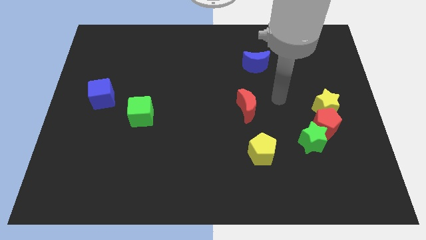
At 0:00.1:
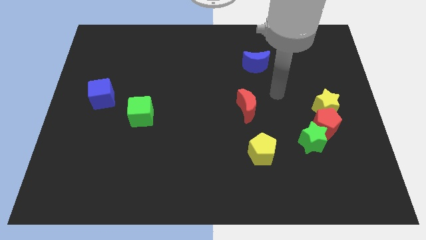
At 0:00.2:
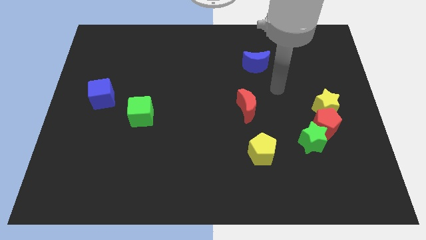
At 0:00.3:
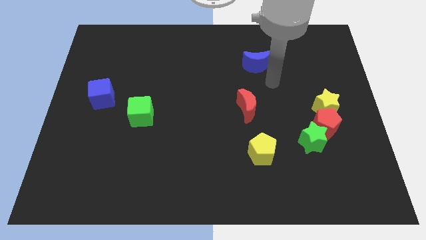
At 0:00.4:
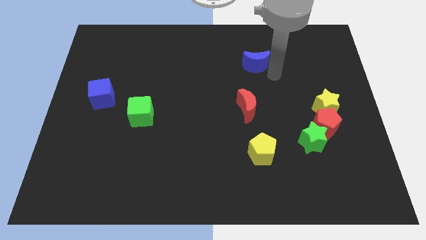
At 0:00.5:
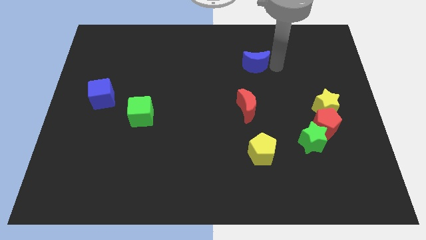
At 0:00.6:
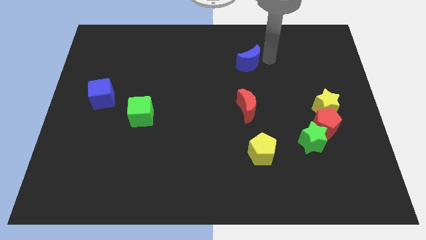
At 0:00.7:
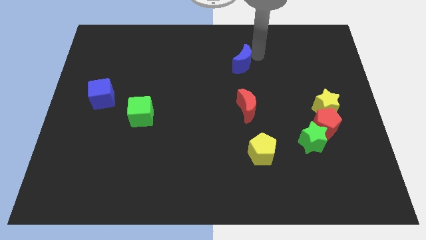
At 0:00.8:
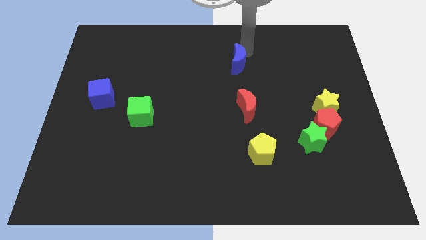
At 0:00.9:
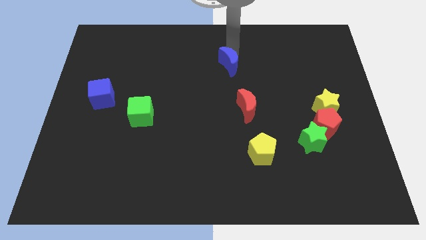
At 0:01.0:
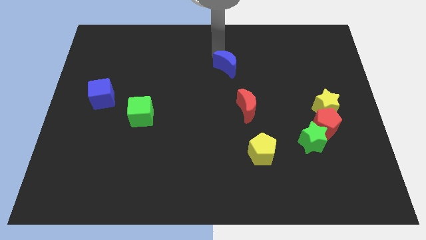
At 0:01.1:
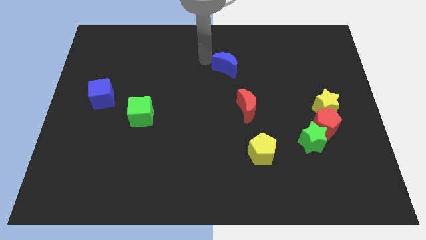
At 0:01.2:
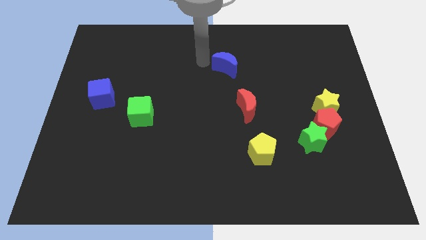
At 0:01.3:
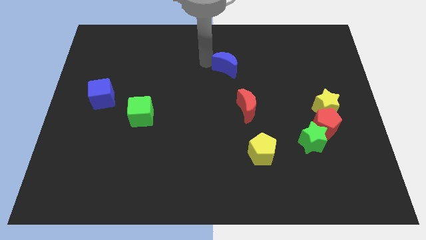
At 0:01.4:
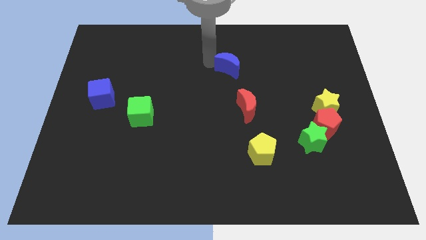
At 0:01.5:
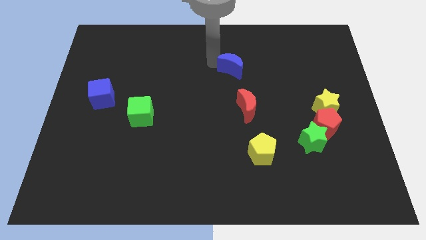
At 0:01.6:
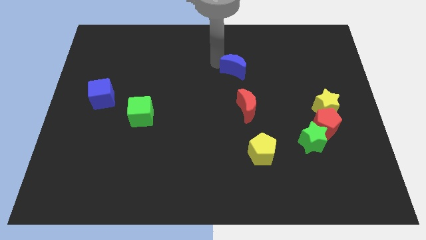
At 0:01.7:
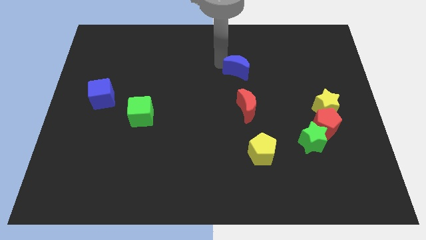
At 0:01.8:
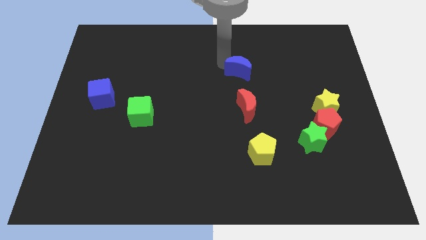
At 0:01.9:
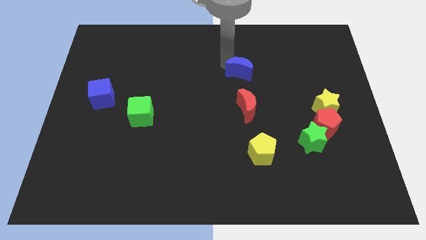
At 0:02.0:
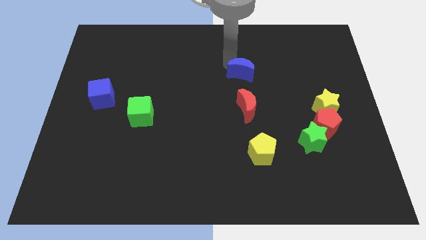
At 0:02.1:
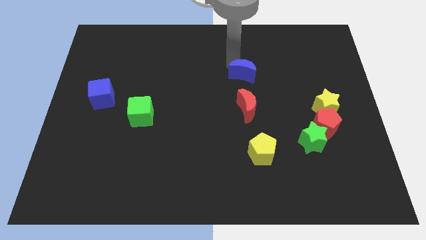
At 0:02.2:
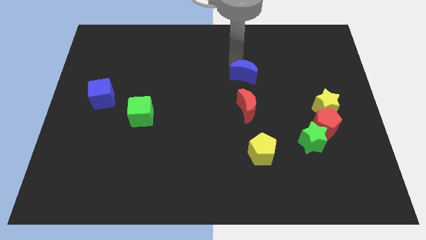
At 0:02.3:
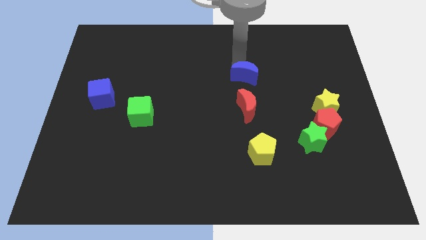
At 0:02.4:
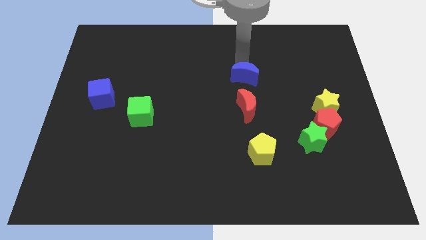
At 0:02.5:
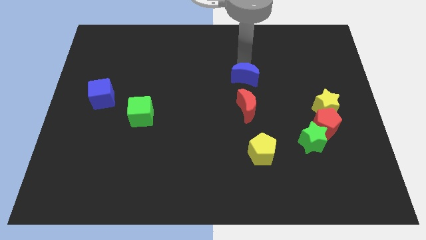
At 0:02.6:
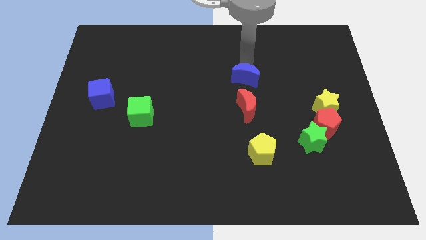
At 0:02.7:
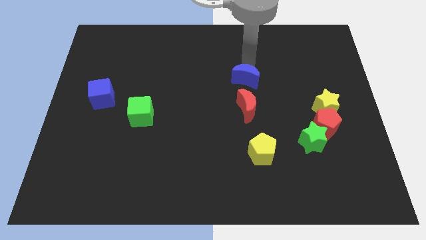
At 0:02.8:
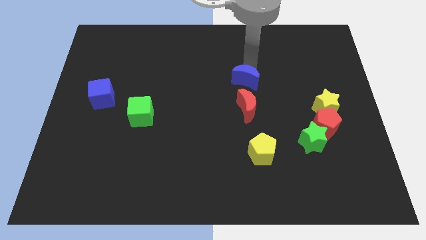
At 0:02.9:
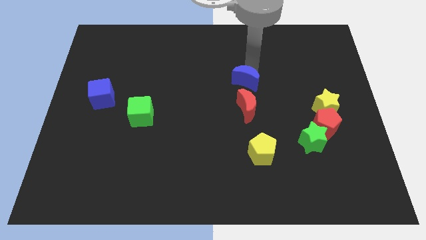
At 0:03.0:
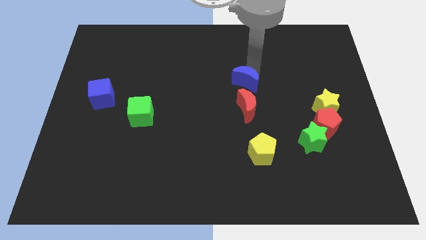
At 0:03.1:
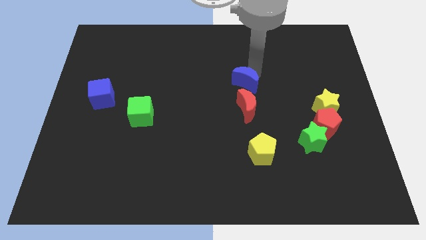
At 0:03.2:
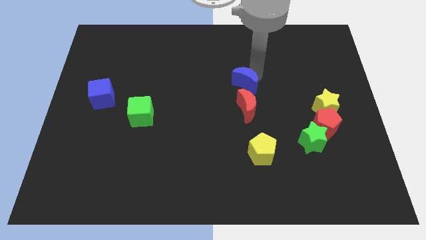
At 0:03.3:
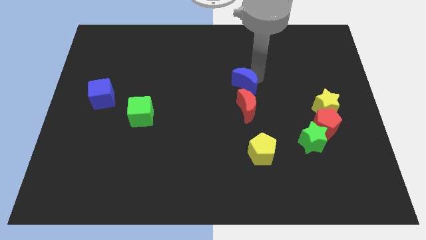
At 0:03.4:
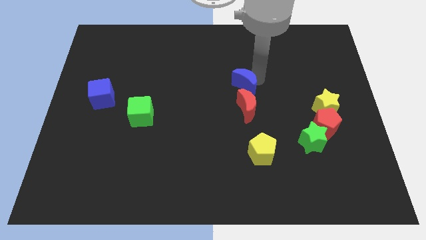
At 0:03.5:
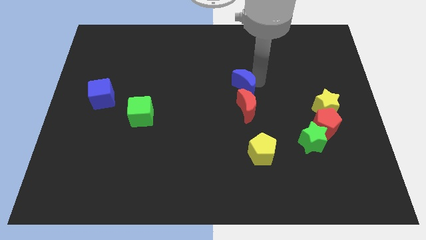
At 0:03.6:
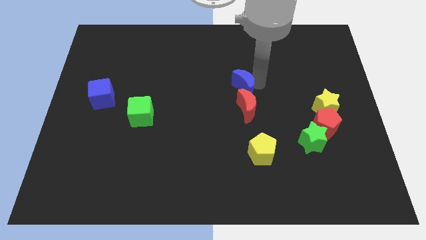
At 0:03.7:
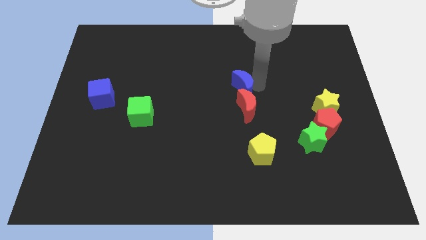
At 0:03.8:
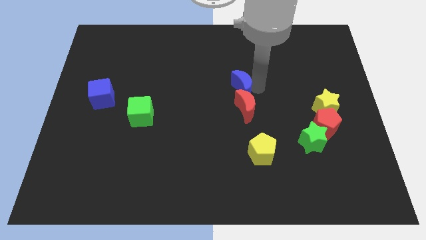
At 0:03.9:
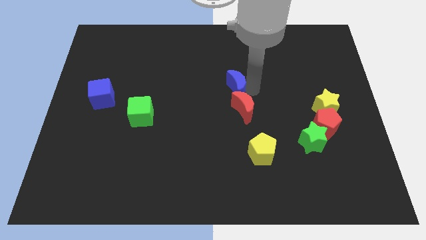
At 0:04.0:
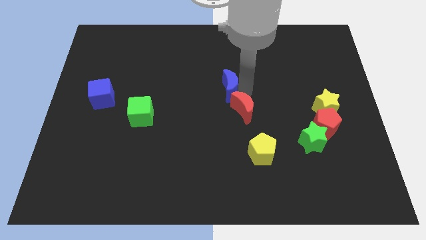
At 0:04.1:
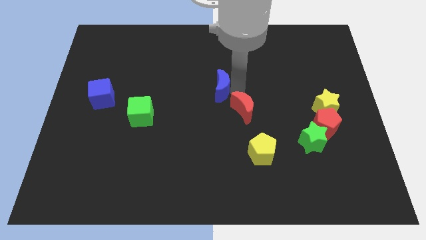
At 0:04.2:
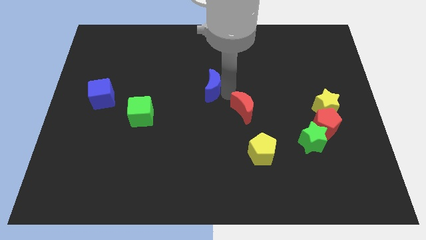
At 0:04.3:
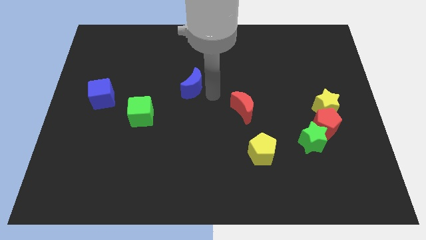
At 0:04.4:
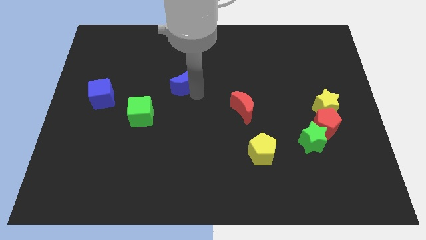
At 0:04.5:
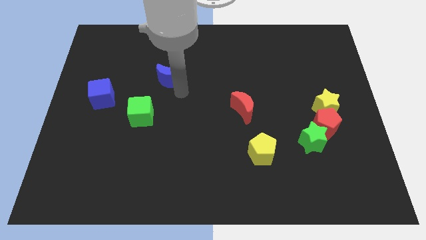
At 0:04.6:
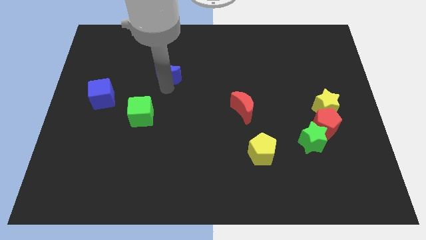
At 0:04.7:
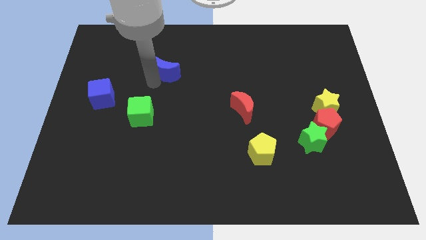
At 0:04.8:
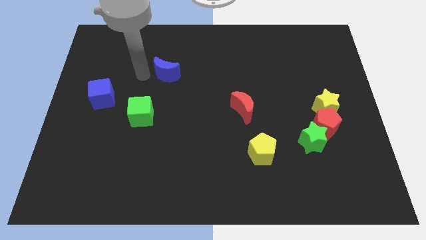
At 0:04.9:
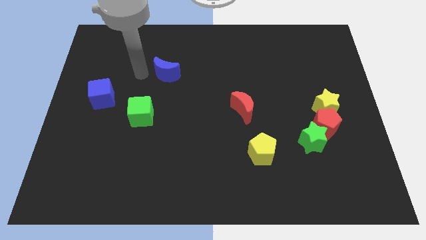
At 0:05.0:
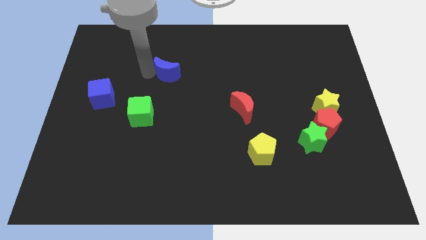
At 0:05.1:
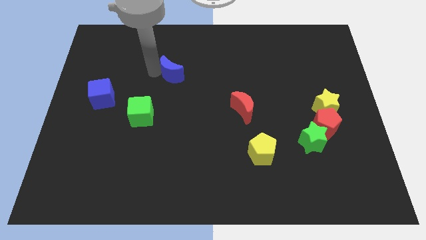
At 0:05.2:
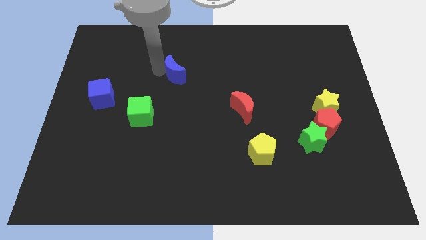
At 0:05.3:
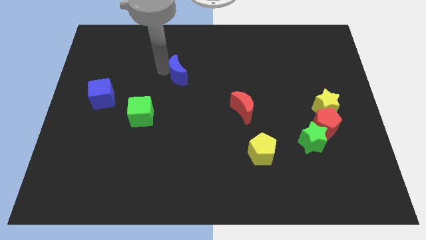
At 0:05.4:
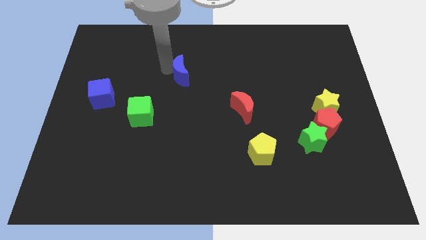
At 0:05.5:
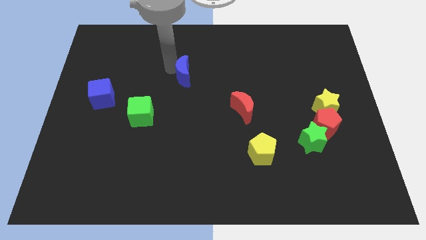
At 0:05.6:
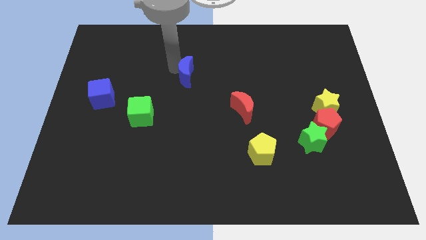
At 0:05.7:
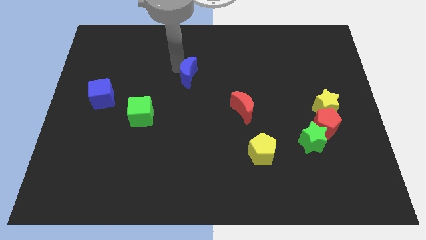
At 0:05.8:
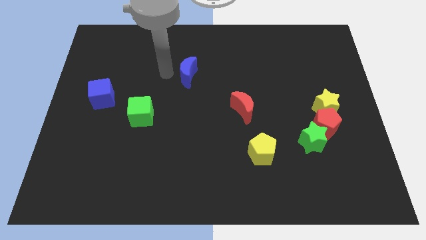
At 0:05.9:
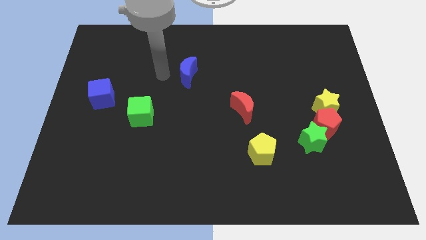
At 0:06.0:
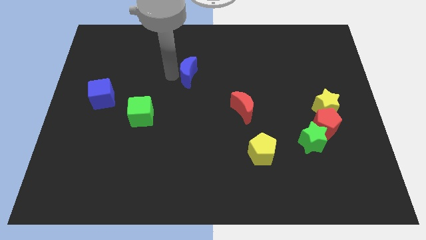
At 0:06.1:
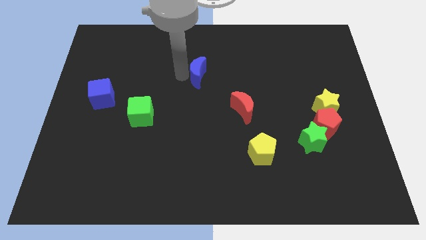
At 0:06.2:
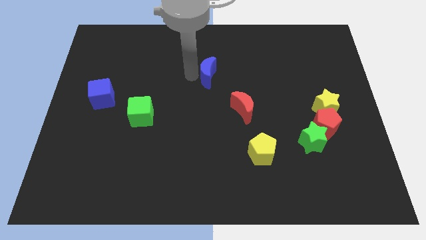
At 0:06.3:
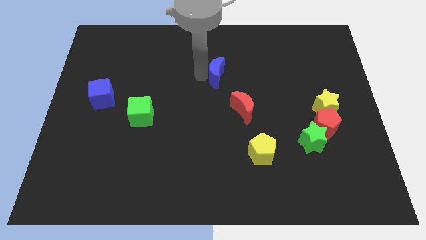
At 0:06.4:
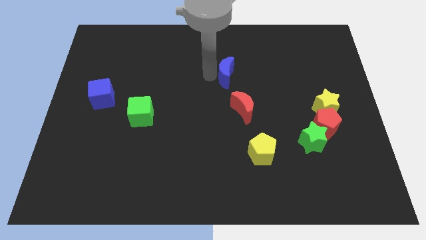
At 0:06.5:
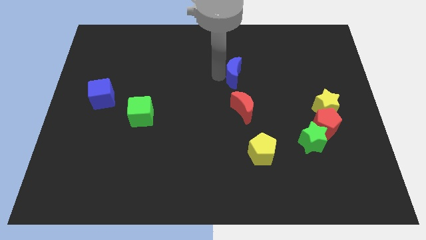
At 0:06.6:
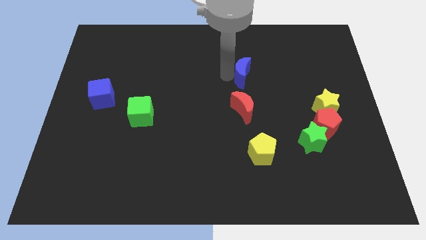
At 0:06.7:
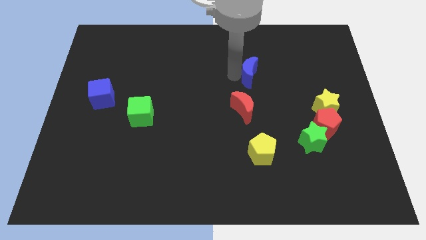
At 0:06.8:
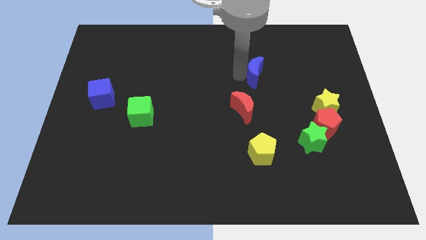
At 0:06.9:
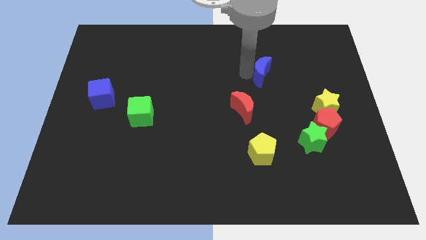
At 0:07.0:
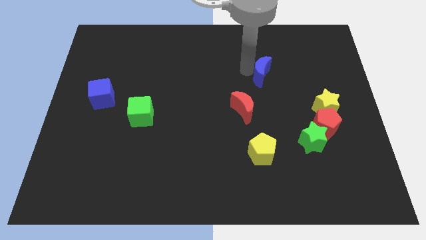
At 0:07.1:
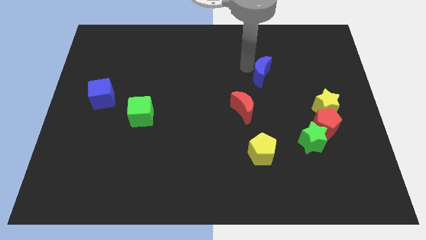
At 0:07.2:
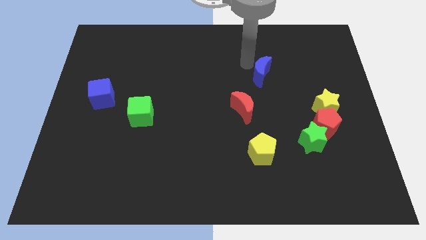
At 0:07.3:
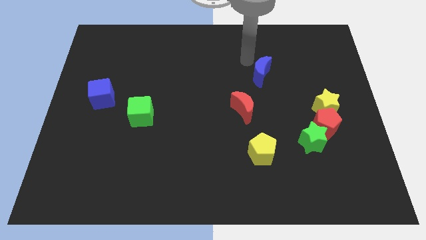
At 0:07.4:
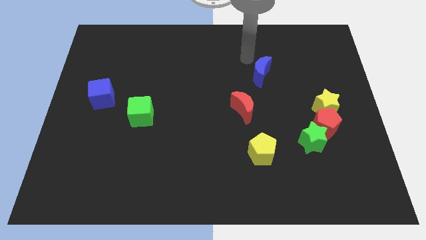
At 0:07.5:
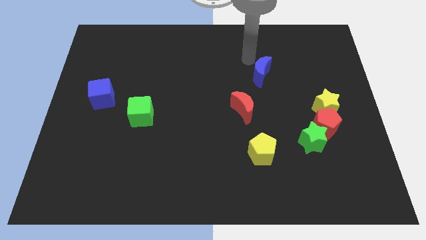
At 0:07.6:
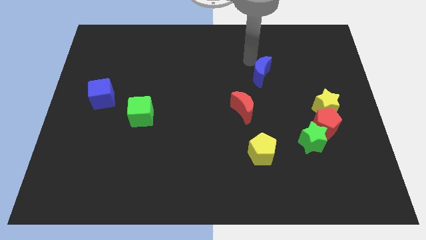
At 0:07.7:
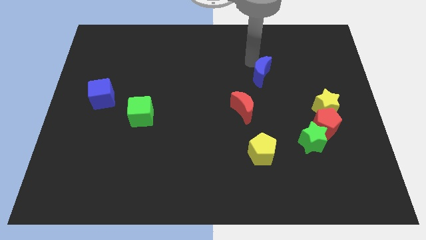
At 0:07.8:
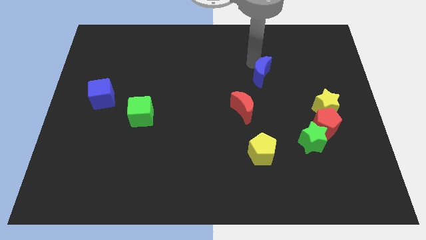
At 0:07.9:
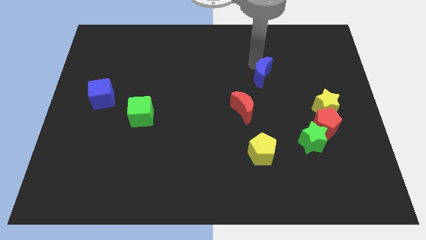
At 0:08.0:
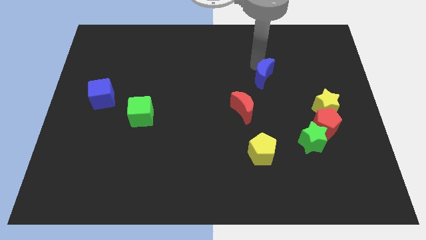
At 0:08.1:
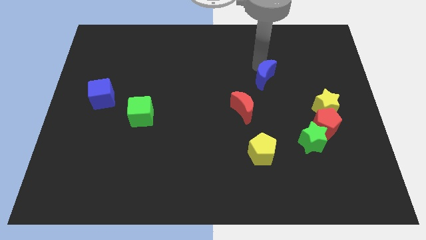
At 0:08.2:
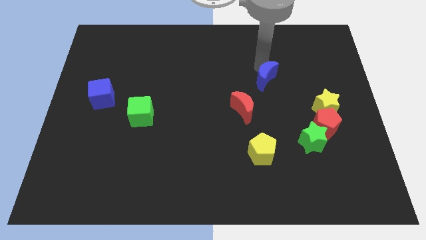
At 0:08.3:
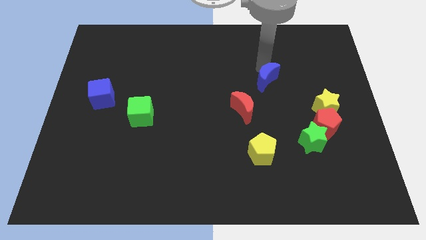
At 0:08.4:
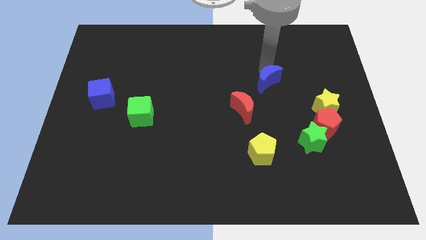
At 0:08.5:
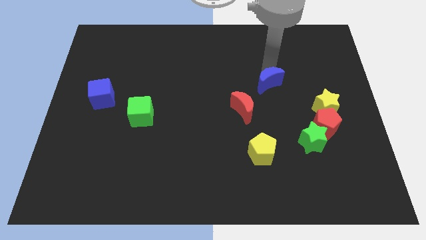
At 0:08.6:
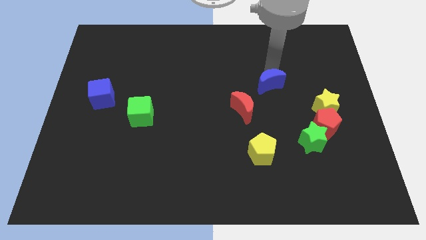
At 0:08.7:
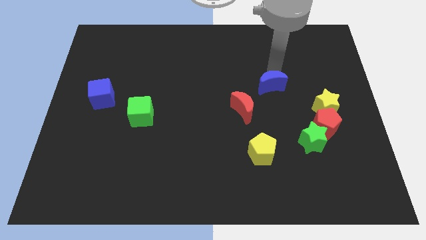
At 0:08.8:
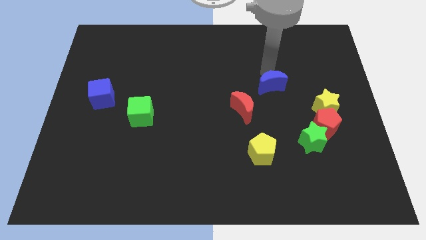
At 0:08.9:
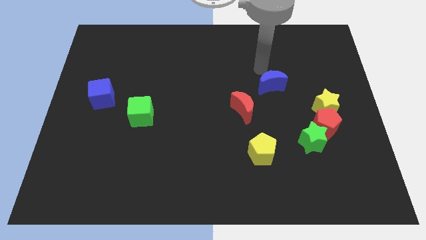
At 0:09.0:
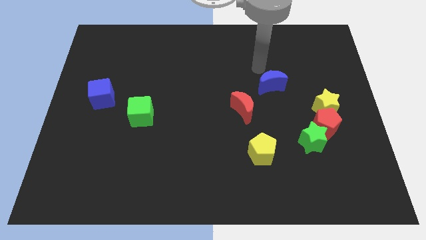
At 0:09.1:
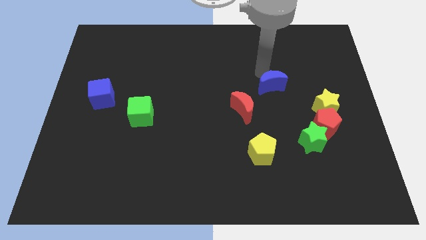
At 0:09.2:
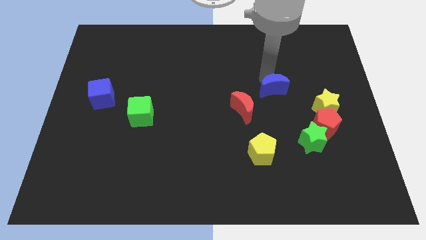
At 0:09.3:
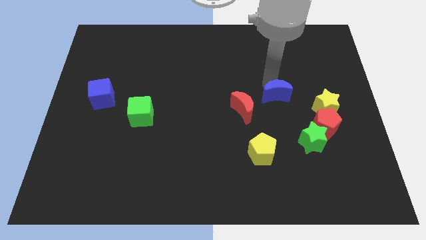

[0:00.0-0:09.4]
move the blue moon just right of the red moon
